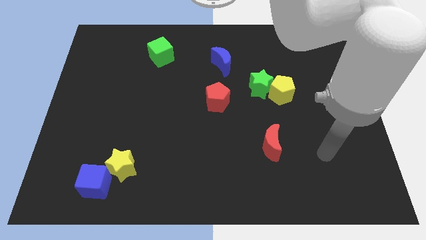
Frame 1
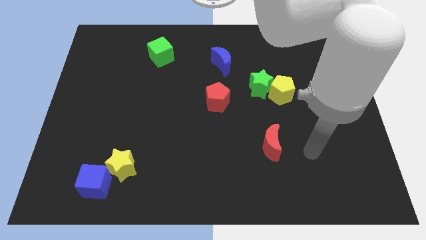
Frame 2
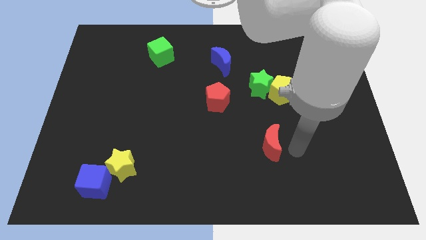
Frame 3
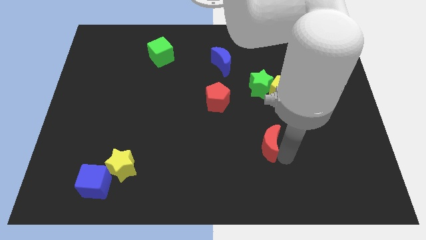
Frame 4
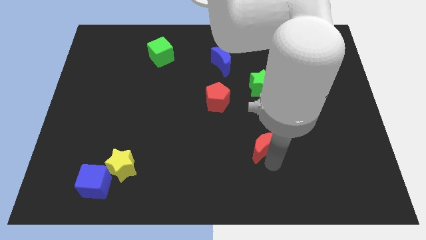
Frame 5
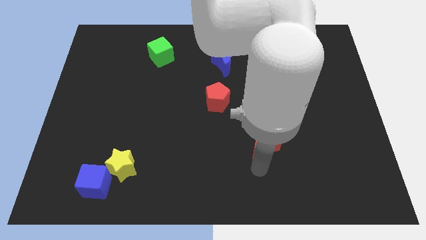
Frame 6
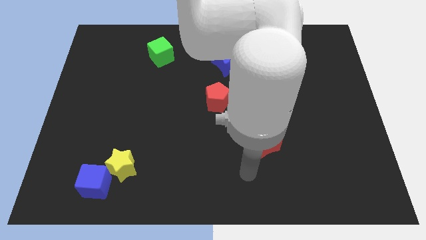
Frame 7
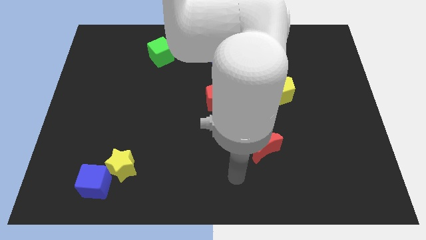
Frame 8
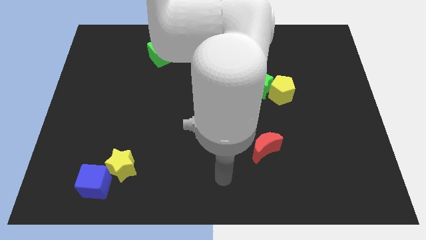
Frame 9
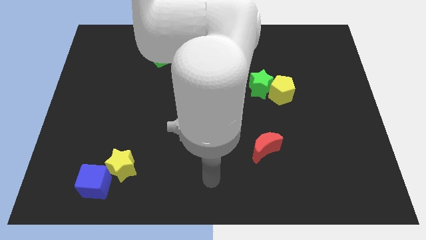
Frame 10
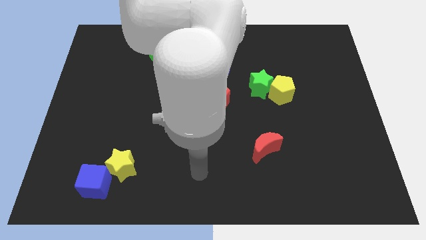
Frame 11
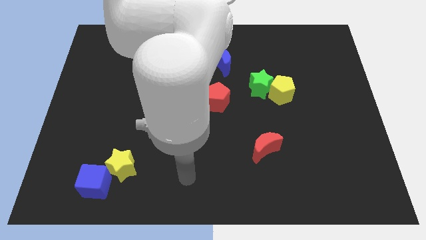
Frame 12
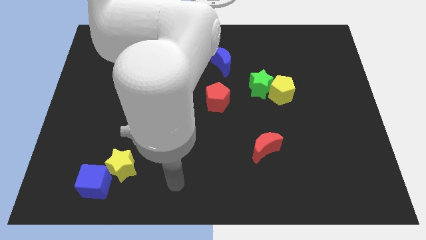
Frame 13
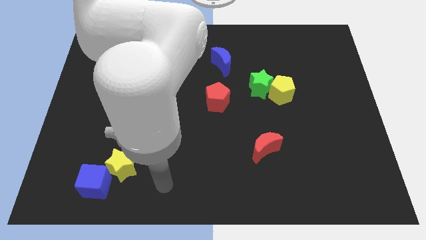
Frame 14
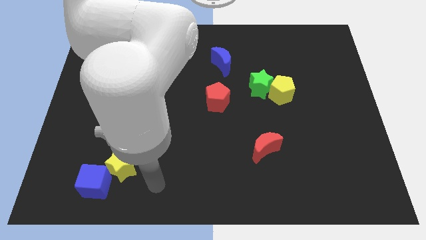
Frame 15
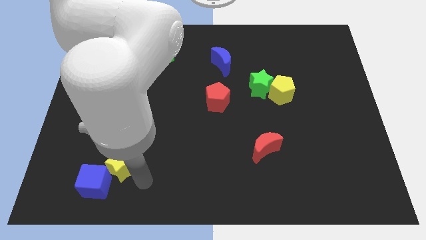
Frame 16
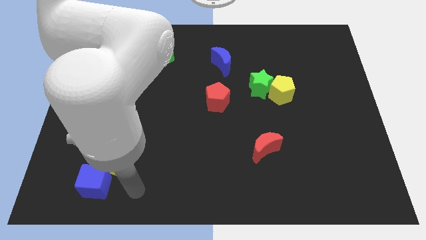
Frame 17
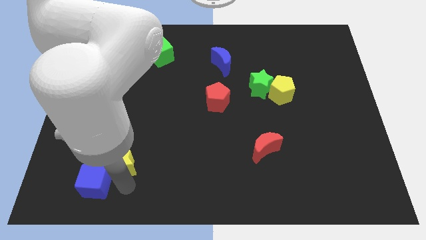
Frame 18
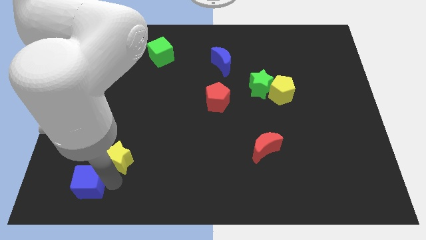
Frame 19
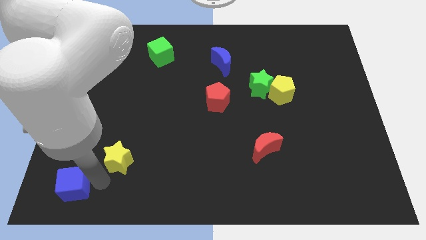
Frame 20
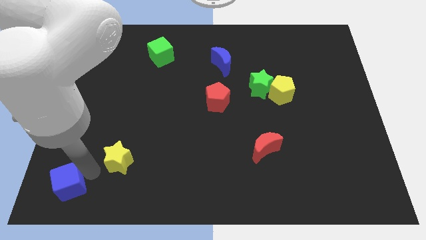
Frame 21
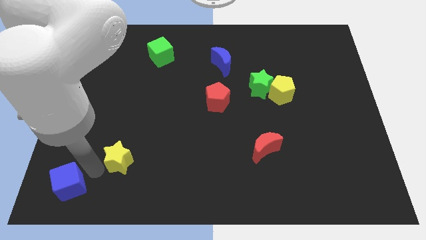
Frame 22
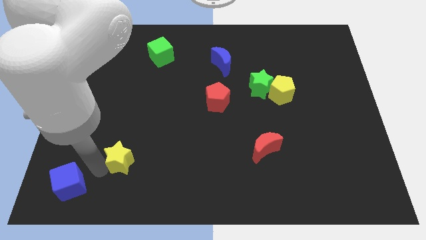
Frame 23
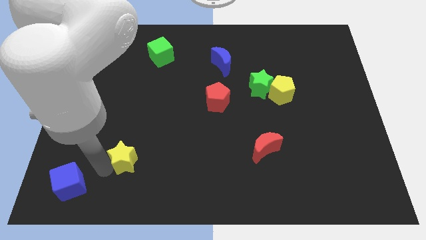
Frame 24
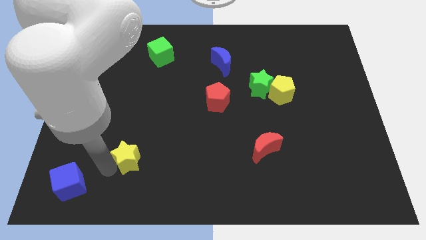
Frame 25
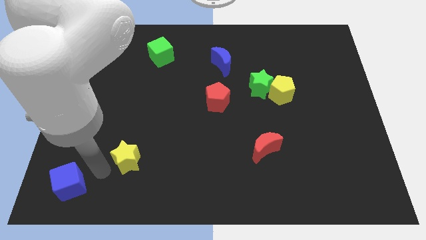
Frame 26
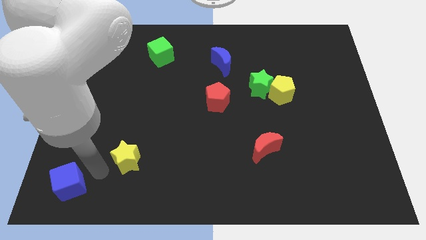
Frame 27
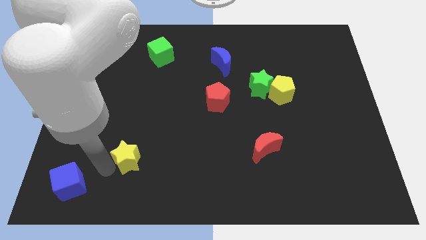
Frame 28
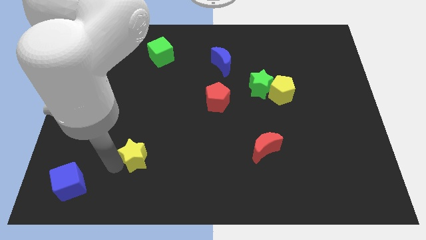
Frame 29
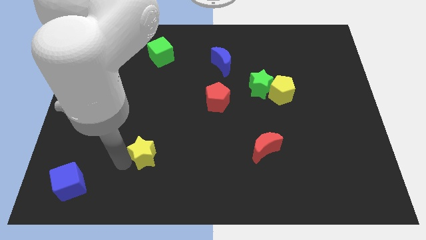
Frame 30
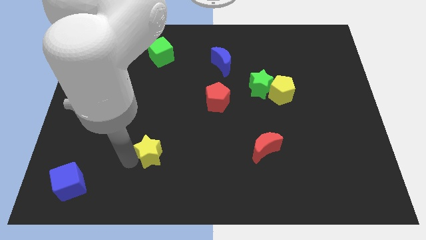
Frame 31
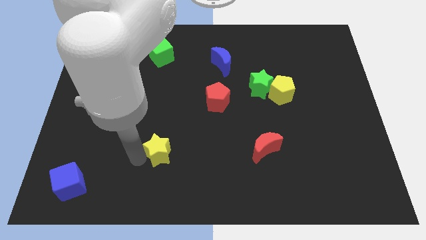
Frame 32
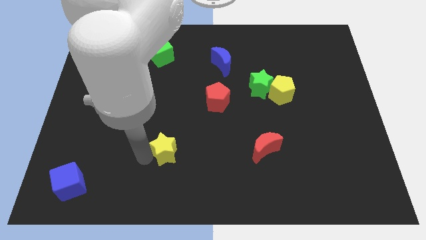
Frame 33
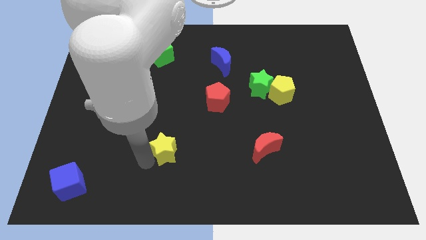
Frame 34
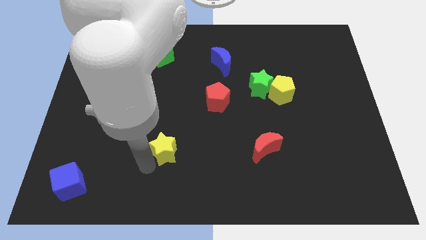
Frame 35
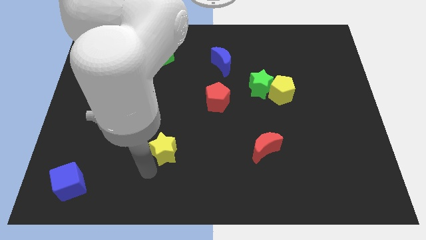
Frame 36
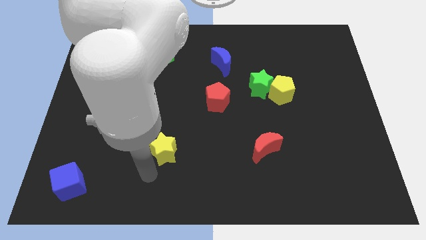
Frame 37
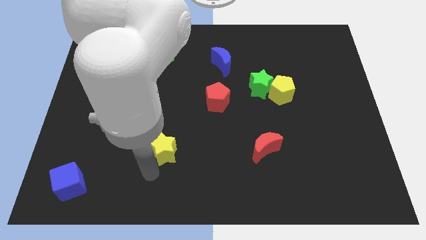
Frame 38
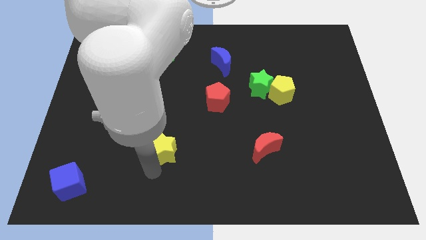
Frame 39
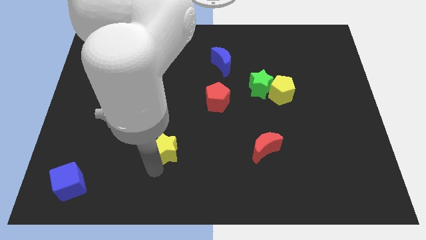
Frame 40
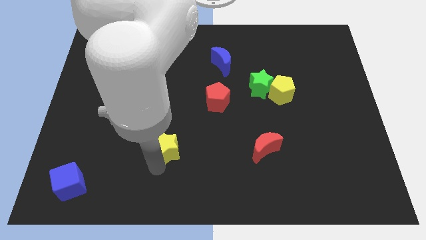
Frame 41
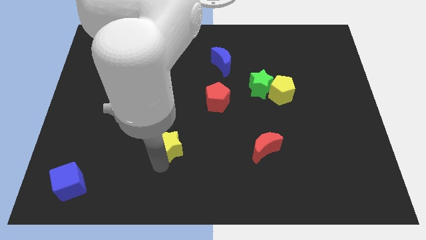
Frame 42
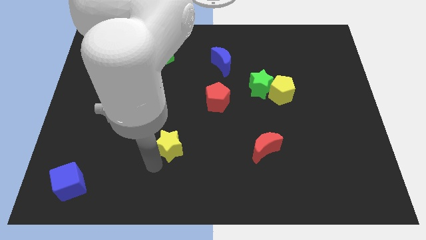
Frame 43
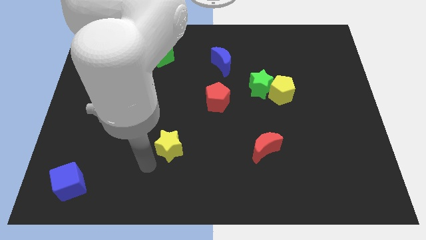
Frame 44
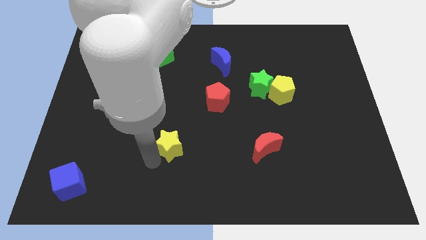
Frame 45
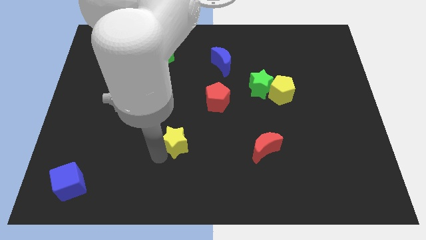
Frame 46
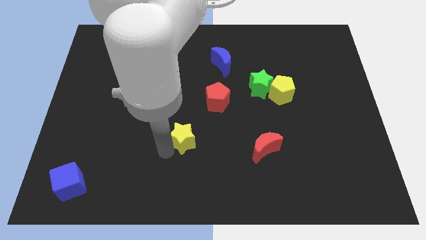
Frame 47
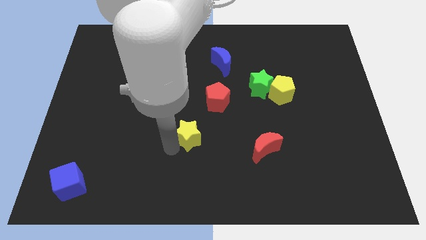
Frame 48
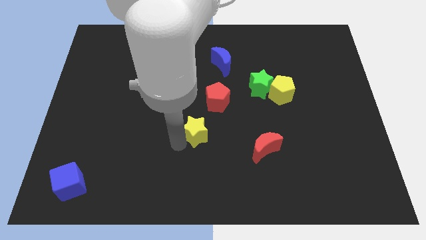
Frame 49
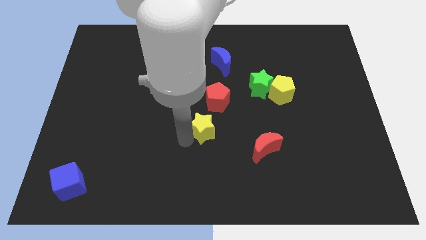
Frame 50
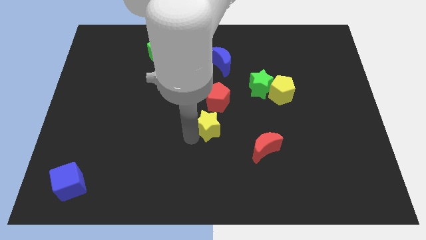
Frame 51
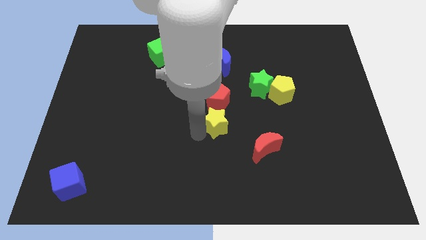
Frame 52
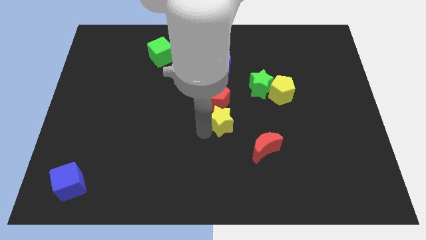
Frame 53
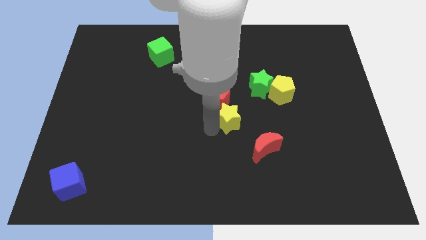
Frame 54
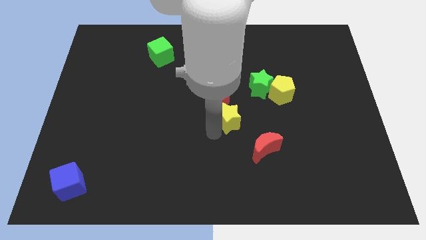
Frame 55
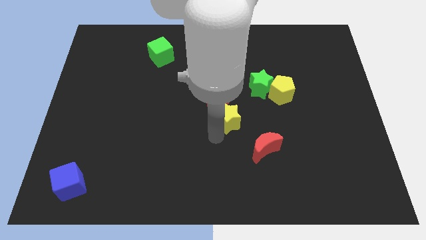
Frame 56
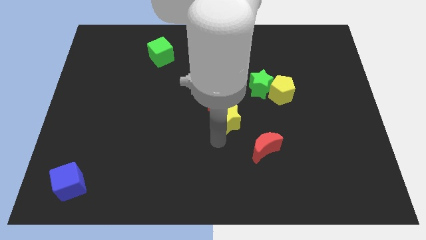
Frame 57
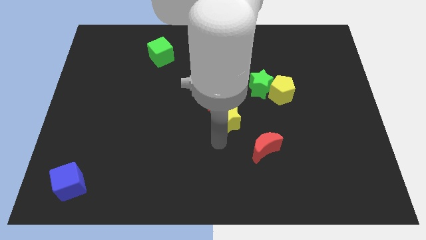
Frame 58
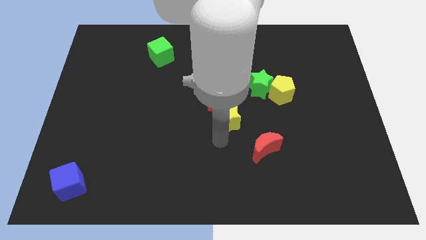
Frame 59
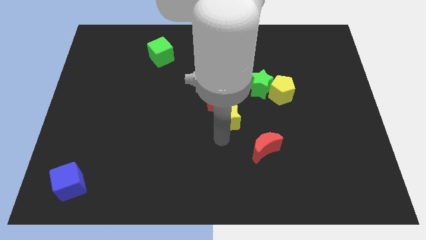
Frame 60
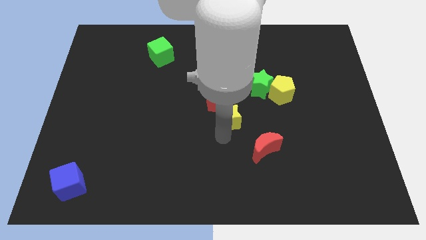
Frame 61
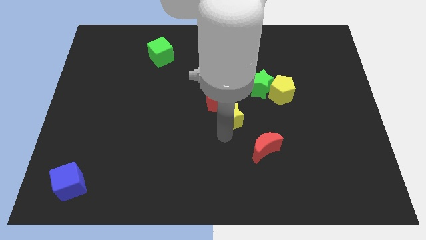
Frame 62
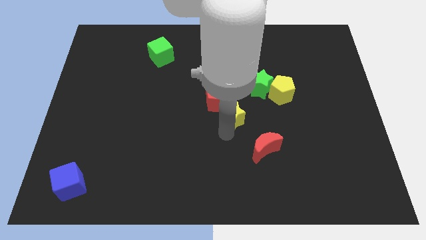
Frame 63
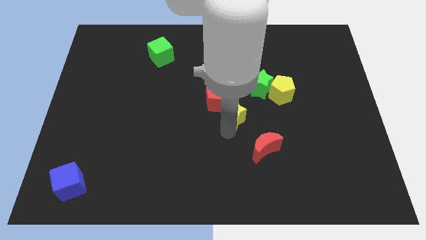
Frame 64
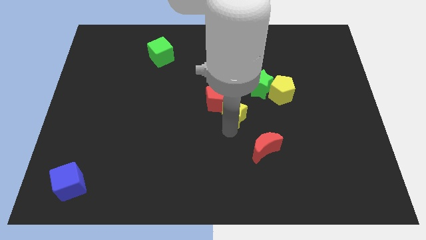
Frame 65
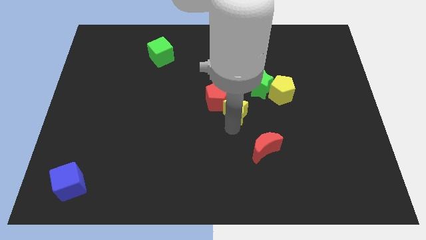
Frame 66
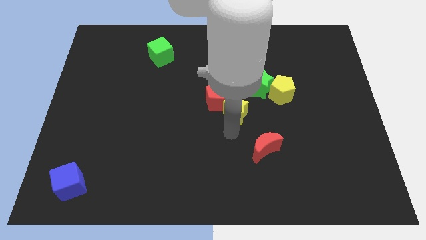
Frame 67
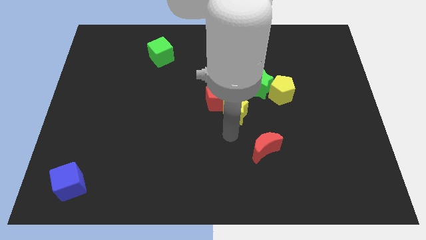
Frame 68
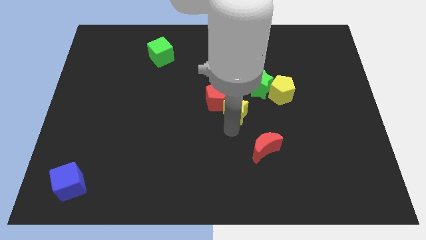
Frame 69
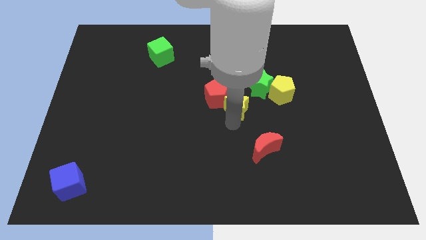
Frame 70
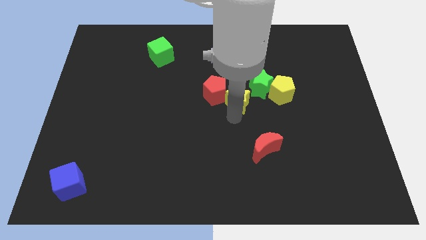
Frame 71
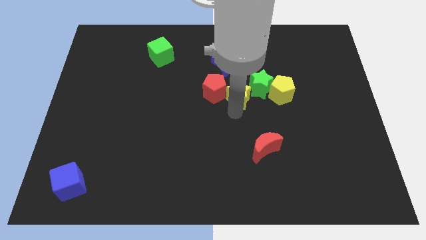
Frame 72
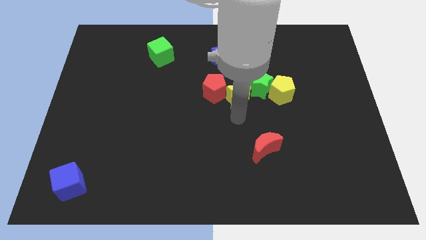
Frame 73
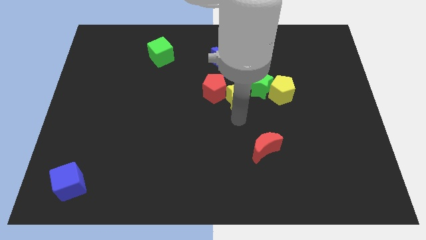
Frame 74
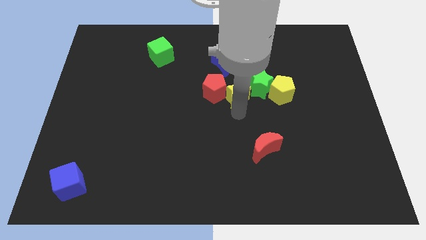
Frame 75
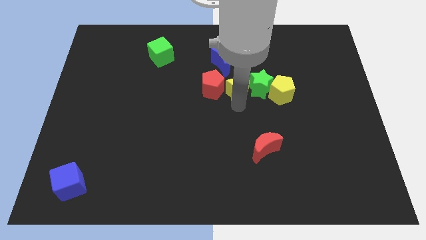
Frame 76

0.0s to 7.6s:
put the yellow star to the top left of the green star
